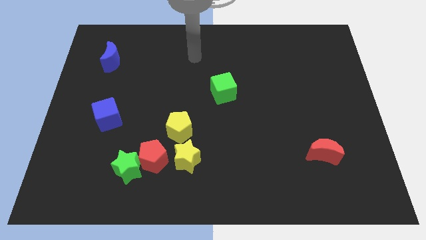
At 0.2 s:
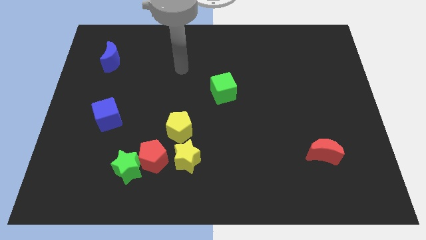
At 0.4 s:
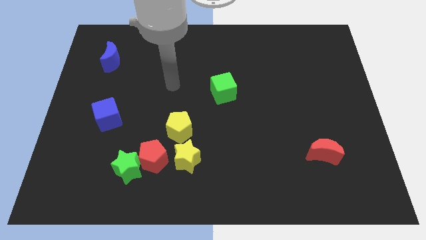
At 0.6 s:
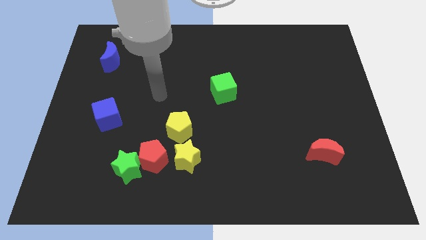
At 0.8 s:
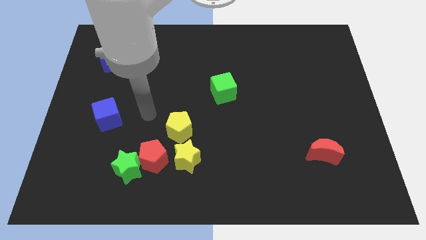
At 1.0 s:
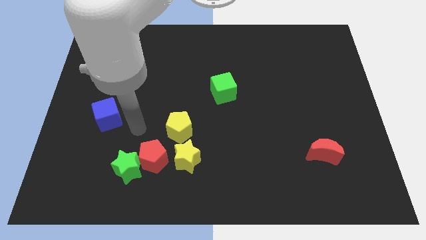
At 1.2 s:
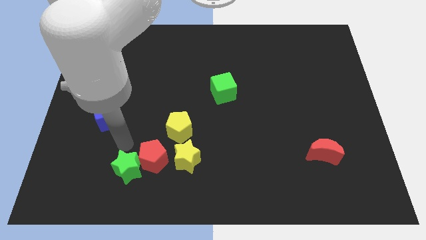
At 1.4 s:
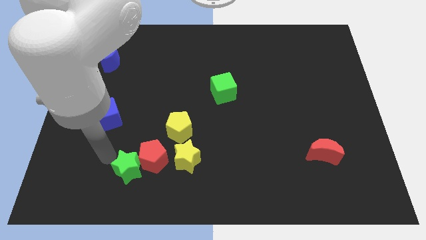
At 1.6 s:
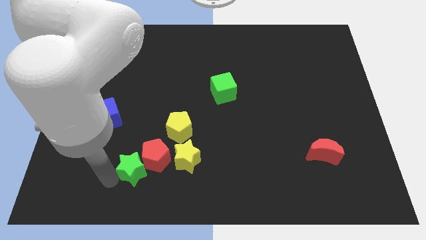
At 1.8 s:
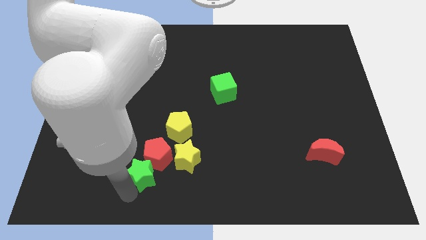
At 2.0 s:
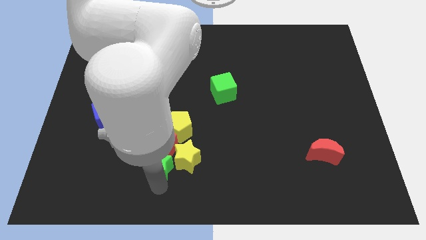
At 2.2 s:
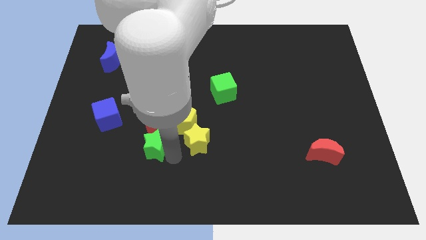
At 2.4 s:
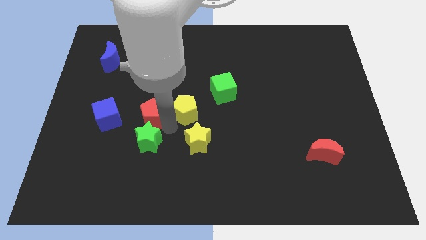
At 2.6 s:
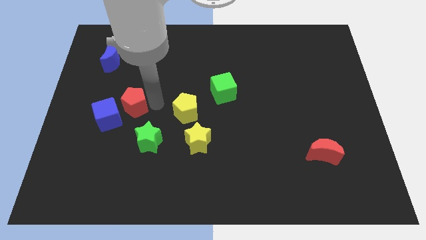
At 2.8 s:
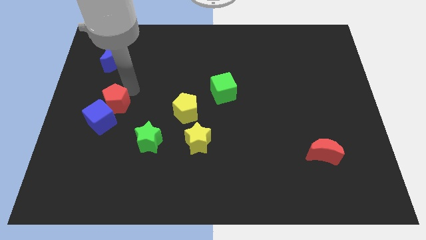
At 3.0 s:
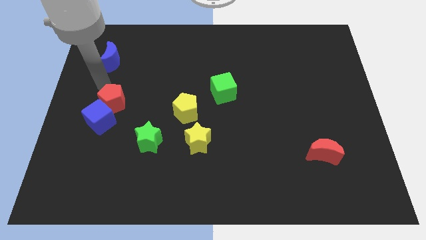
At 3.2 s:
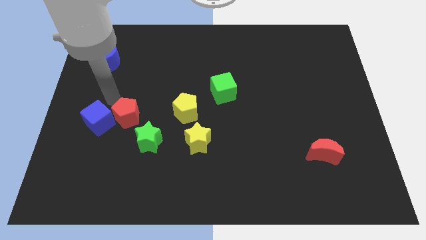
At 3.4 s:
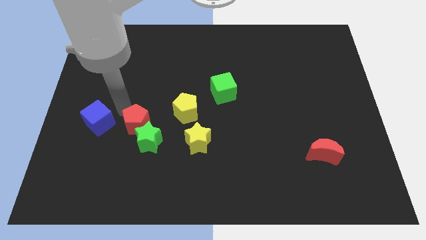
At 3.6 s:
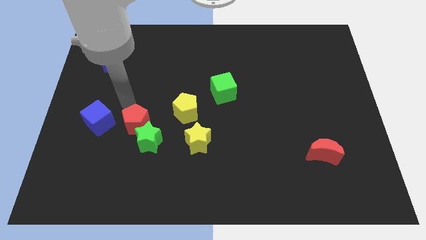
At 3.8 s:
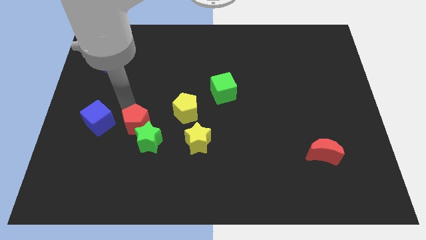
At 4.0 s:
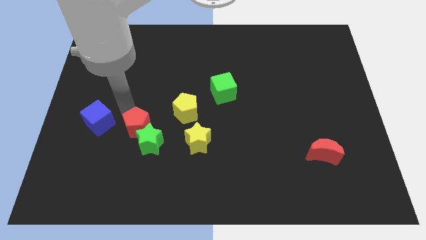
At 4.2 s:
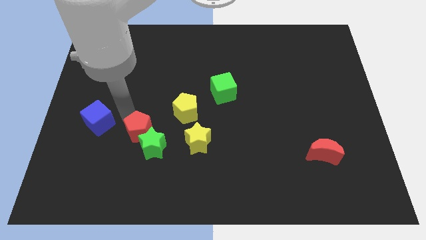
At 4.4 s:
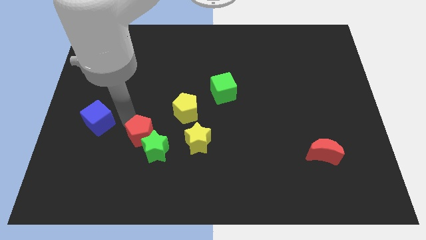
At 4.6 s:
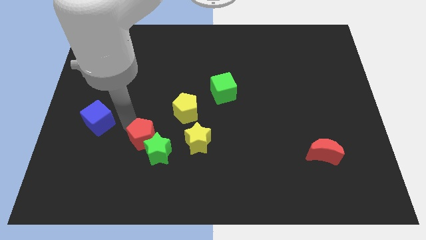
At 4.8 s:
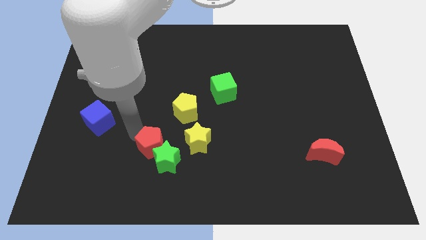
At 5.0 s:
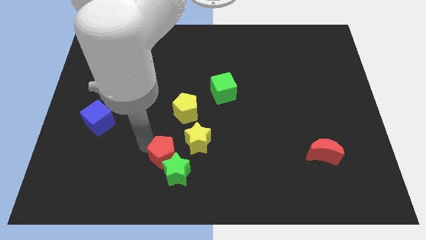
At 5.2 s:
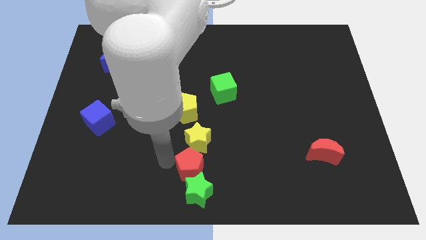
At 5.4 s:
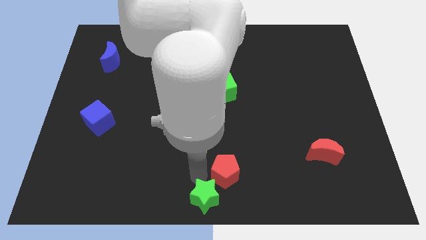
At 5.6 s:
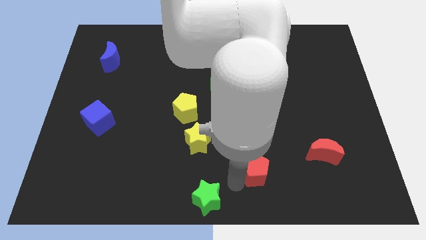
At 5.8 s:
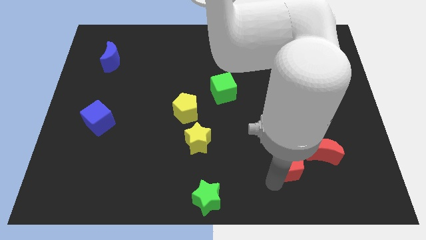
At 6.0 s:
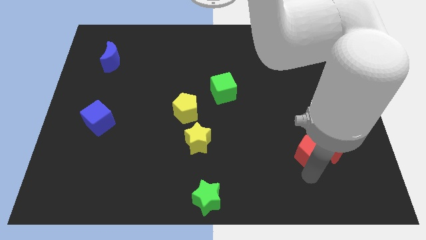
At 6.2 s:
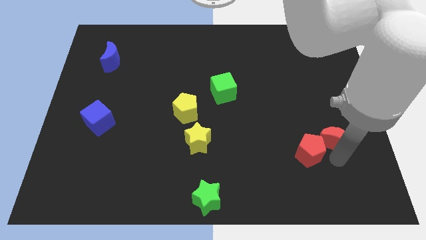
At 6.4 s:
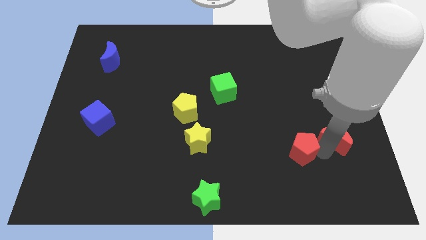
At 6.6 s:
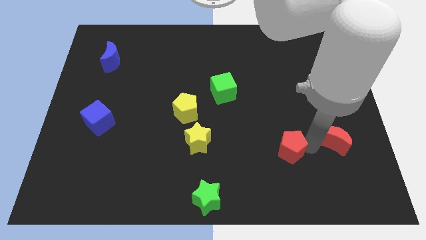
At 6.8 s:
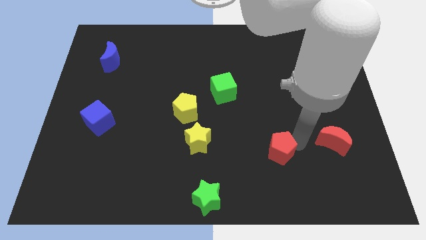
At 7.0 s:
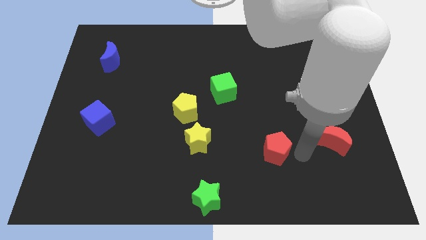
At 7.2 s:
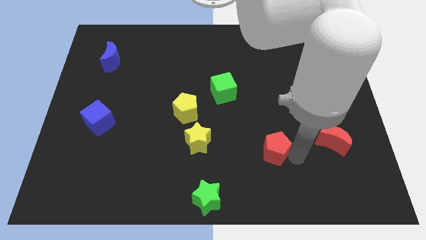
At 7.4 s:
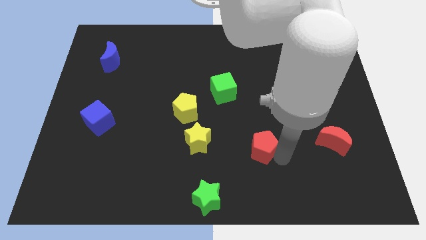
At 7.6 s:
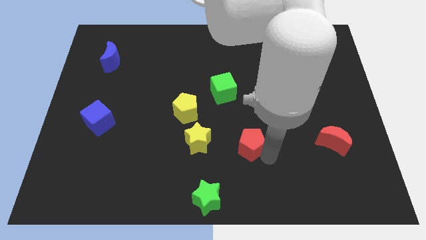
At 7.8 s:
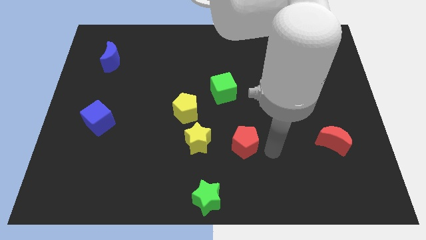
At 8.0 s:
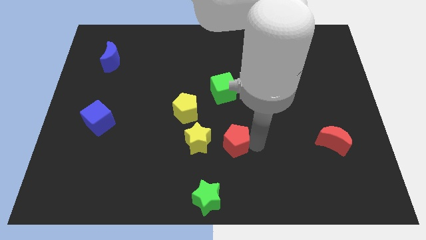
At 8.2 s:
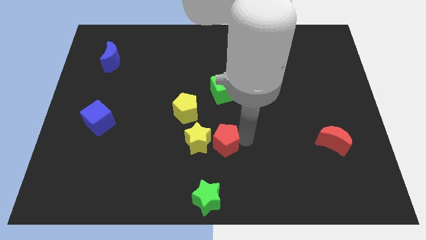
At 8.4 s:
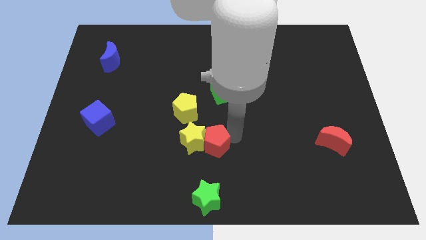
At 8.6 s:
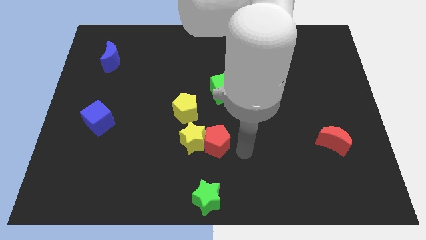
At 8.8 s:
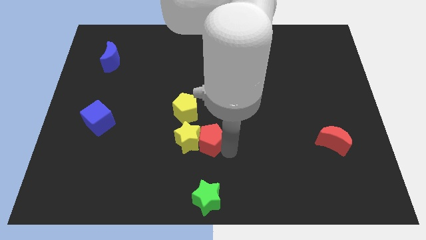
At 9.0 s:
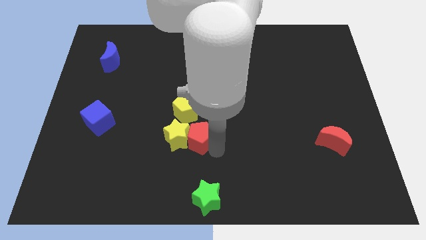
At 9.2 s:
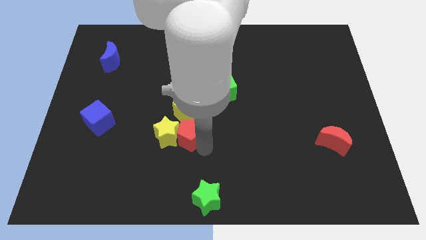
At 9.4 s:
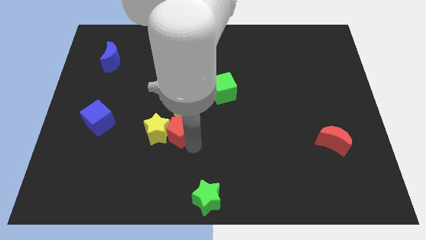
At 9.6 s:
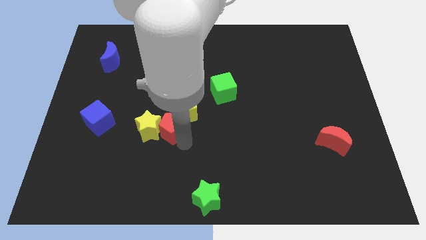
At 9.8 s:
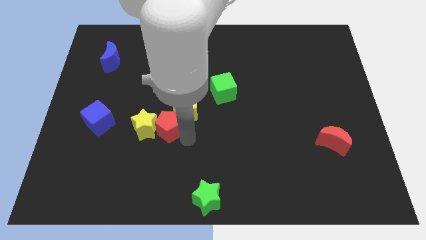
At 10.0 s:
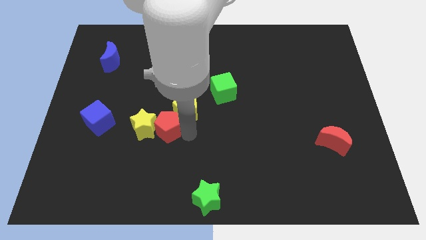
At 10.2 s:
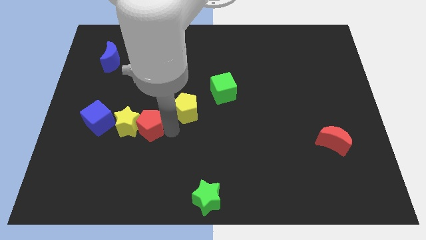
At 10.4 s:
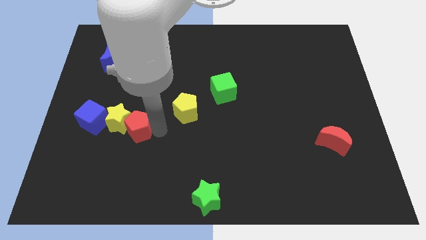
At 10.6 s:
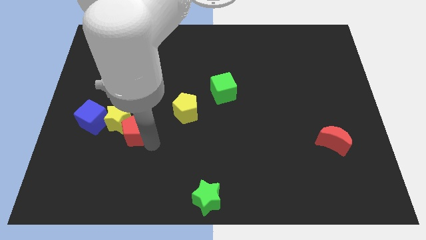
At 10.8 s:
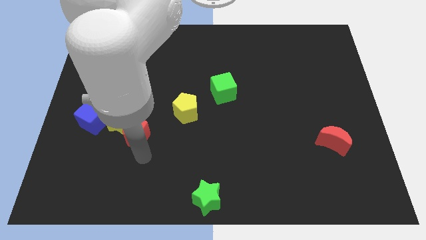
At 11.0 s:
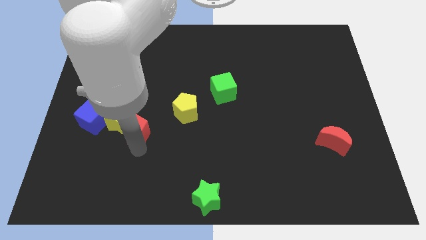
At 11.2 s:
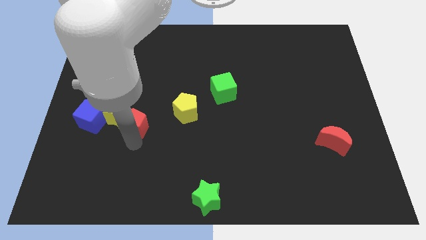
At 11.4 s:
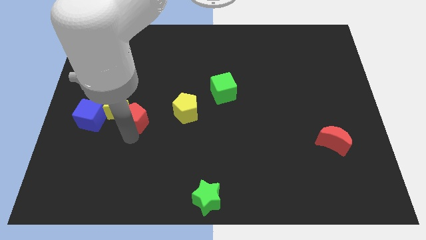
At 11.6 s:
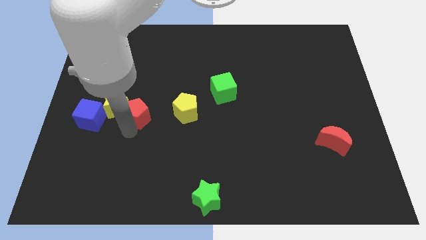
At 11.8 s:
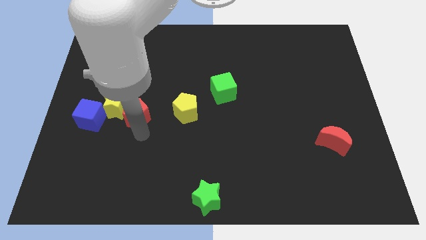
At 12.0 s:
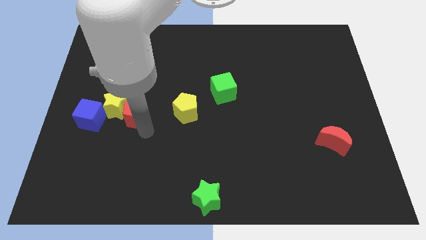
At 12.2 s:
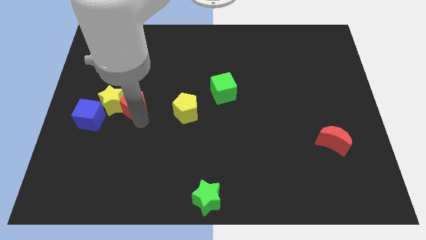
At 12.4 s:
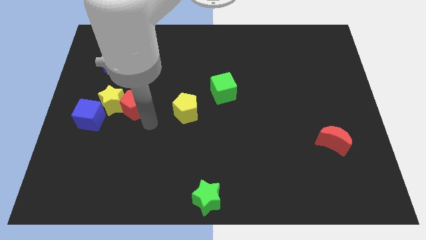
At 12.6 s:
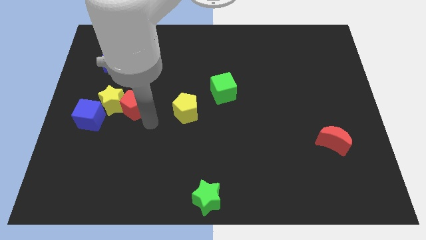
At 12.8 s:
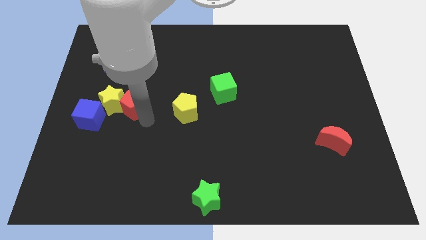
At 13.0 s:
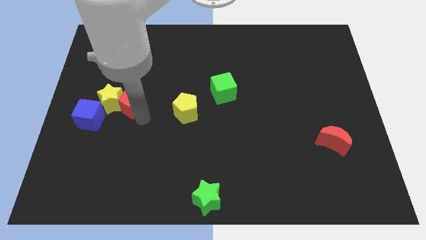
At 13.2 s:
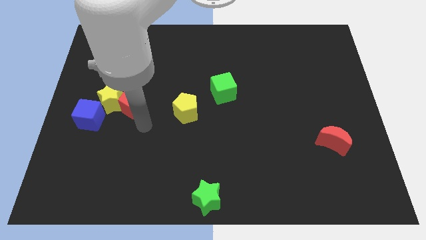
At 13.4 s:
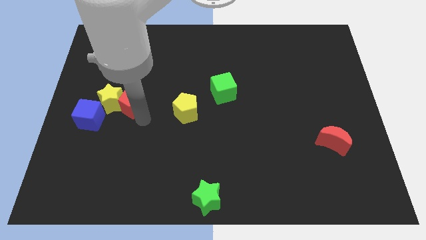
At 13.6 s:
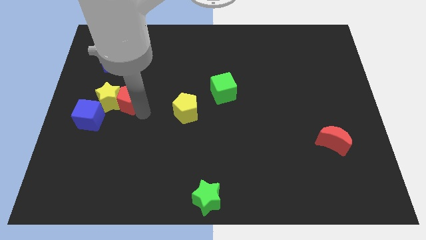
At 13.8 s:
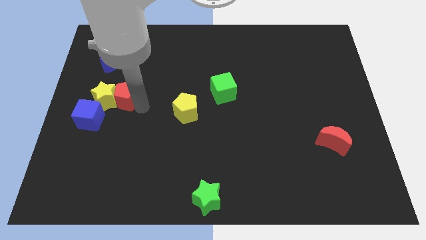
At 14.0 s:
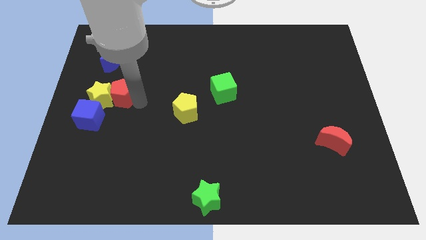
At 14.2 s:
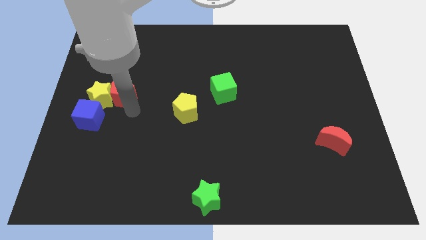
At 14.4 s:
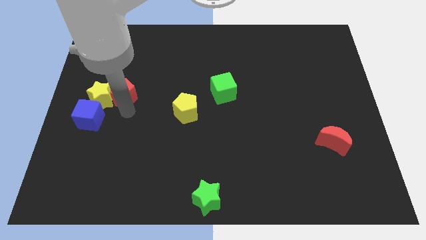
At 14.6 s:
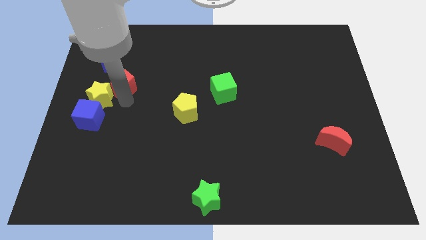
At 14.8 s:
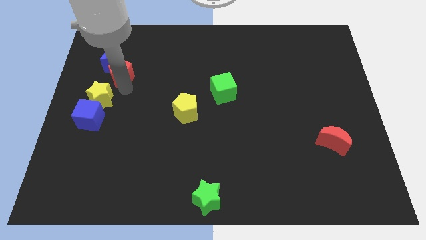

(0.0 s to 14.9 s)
put the red pentagon to the blue moon
